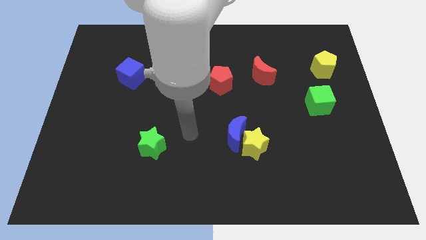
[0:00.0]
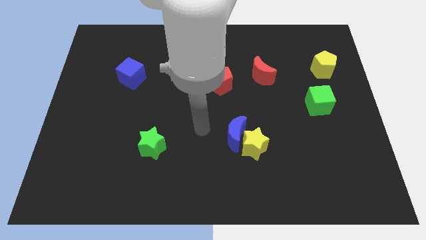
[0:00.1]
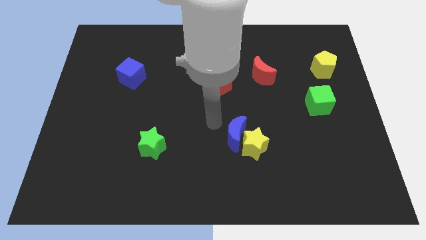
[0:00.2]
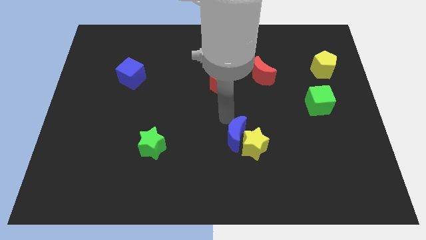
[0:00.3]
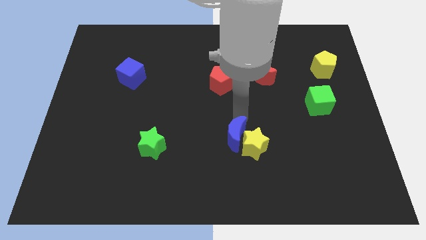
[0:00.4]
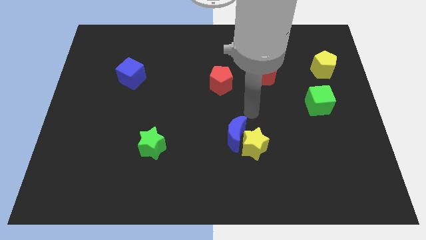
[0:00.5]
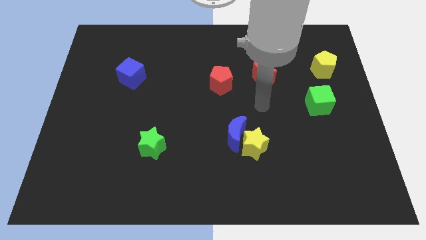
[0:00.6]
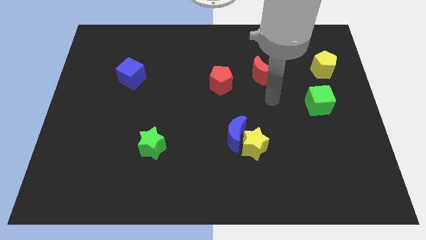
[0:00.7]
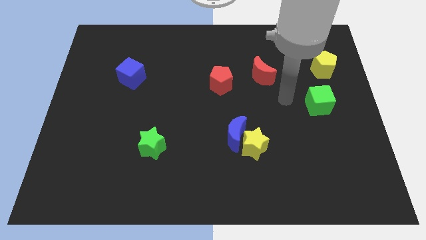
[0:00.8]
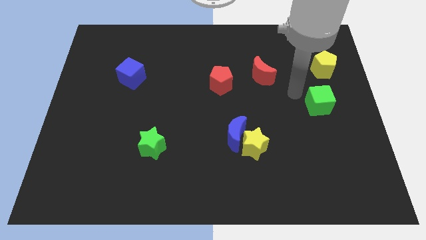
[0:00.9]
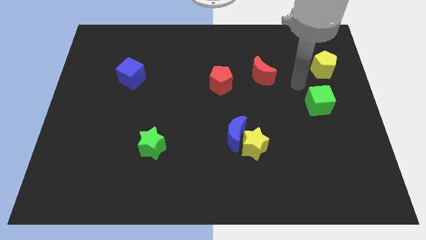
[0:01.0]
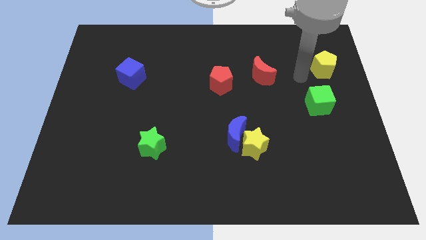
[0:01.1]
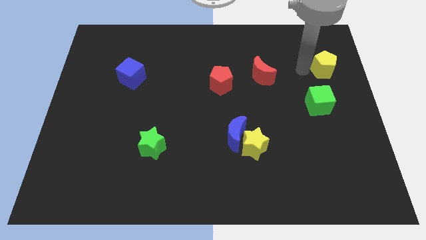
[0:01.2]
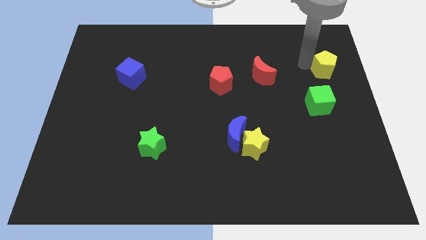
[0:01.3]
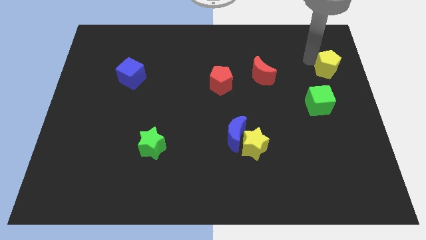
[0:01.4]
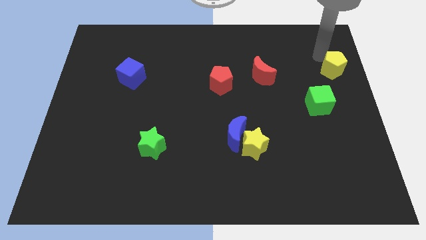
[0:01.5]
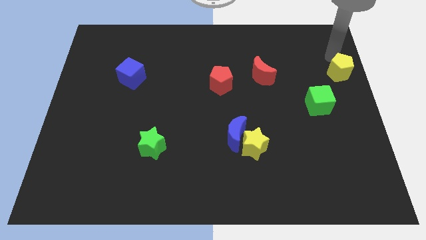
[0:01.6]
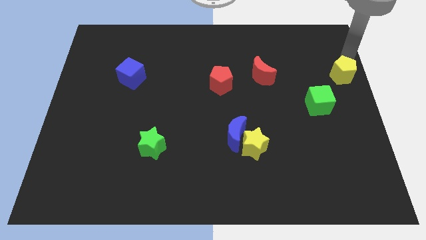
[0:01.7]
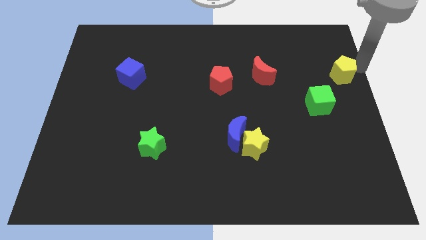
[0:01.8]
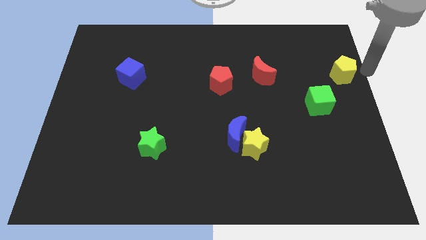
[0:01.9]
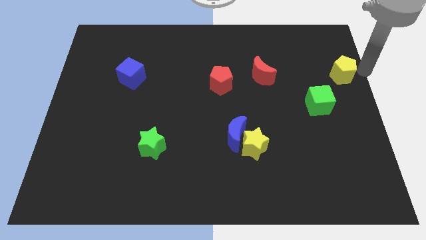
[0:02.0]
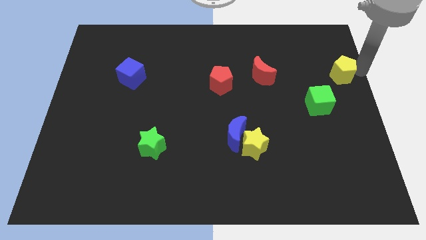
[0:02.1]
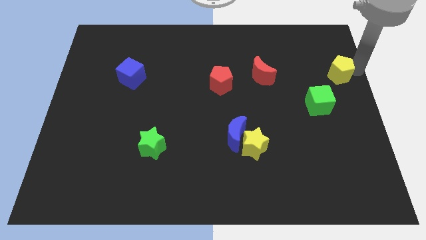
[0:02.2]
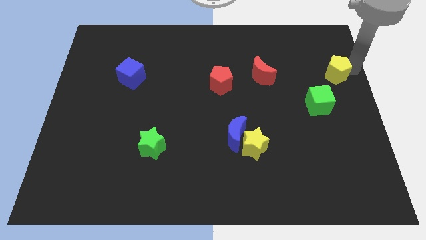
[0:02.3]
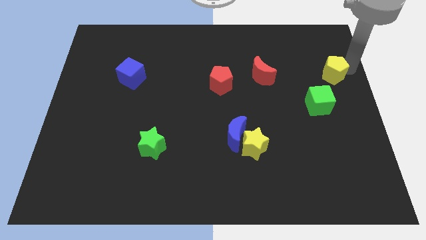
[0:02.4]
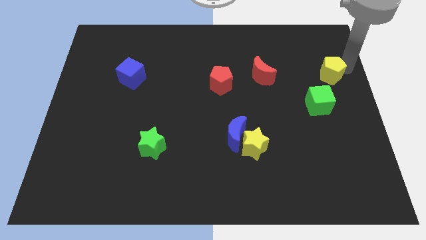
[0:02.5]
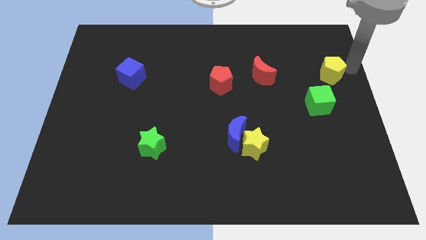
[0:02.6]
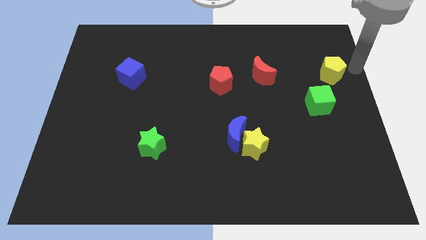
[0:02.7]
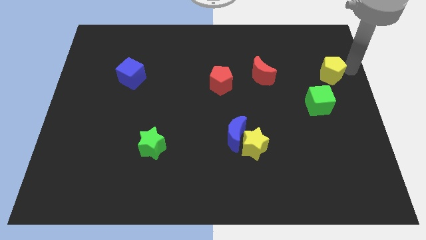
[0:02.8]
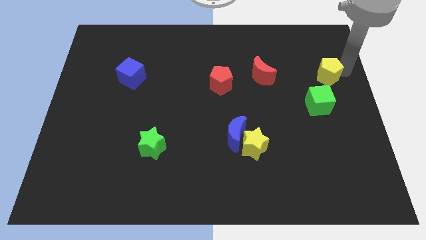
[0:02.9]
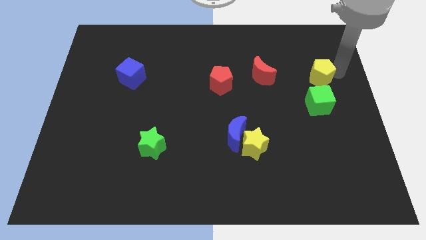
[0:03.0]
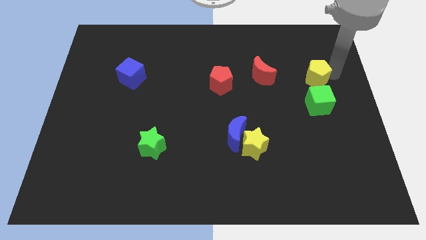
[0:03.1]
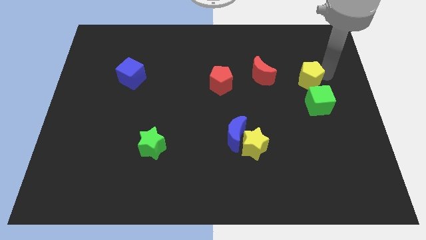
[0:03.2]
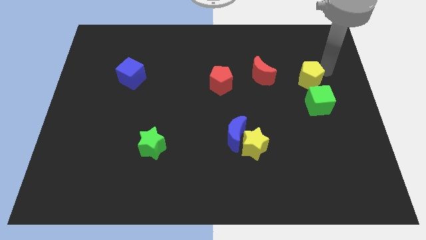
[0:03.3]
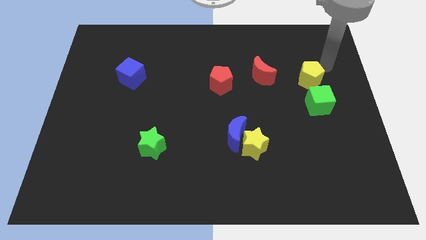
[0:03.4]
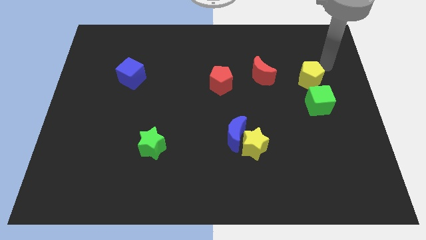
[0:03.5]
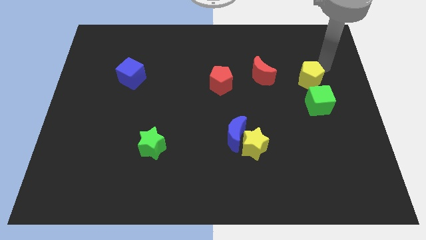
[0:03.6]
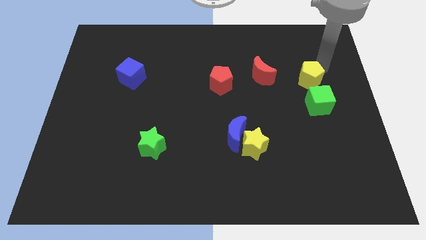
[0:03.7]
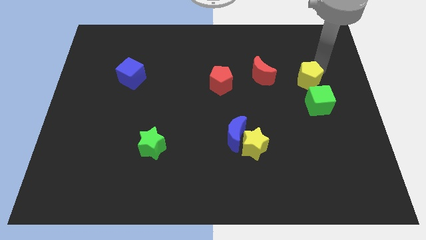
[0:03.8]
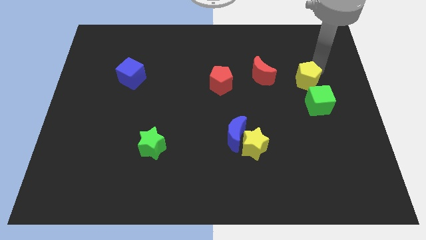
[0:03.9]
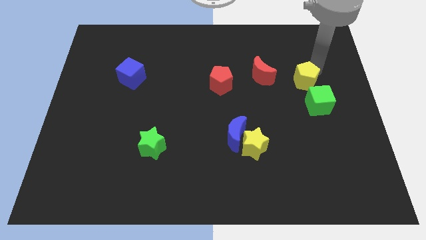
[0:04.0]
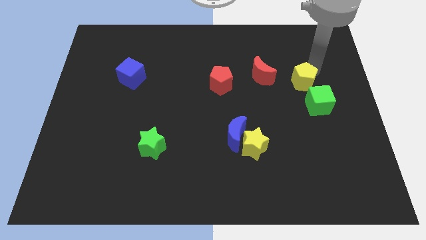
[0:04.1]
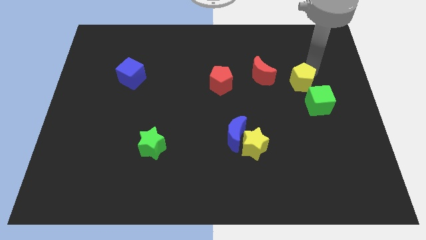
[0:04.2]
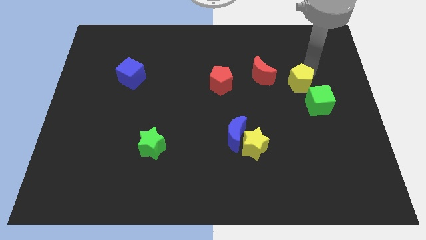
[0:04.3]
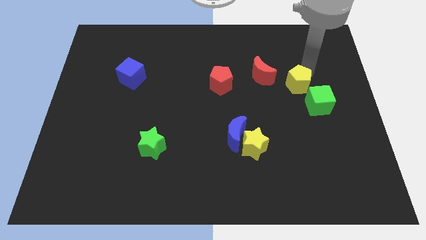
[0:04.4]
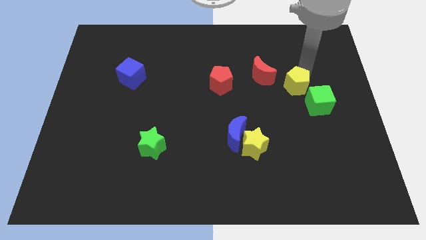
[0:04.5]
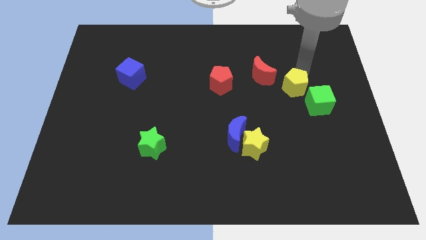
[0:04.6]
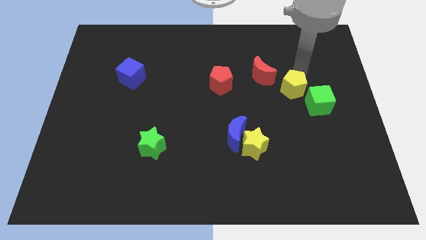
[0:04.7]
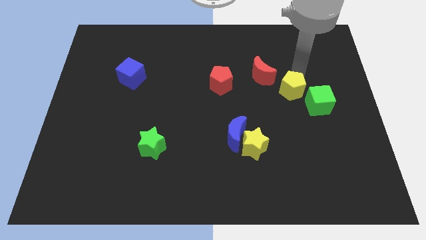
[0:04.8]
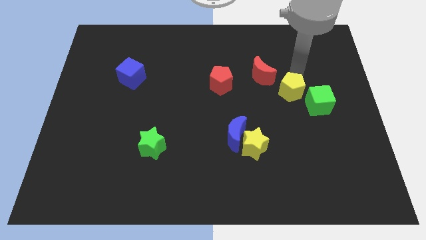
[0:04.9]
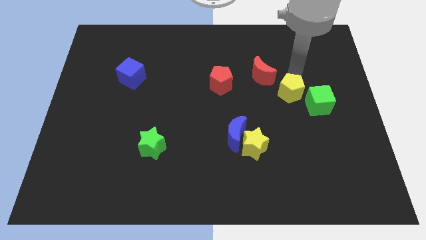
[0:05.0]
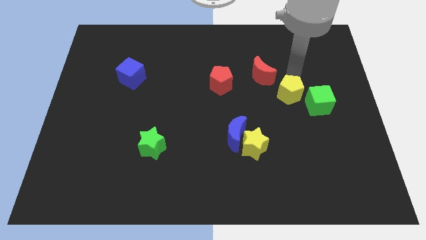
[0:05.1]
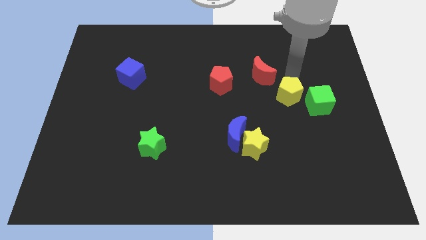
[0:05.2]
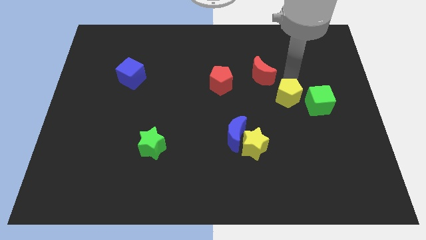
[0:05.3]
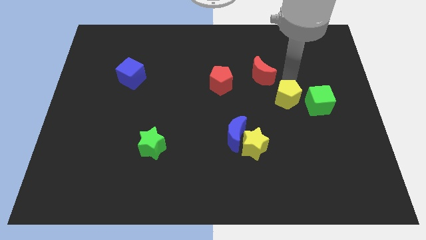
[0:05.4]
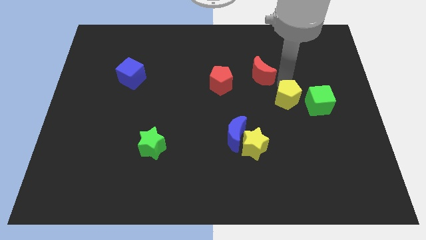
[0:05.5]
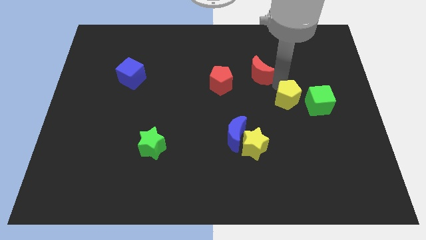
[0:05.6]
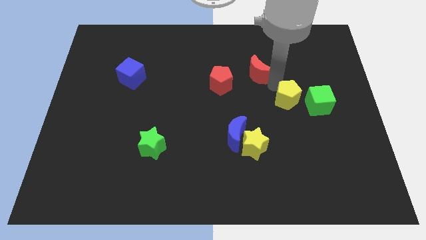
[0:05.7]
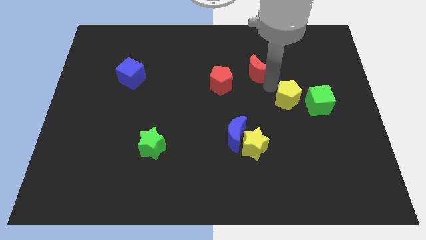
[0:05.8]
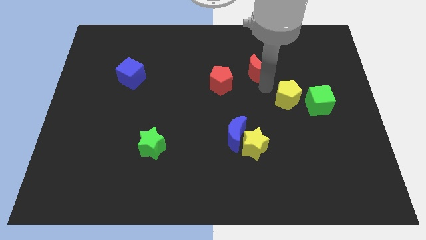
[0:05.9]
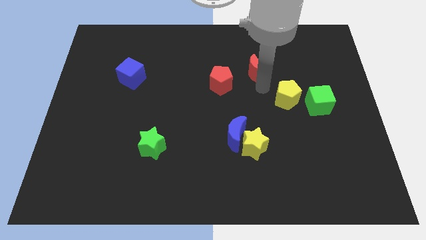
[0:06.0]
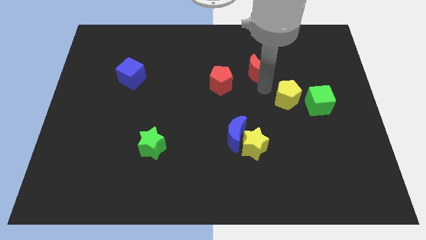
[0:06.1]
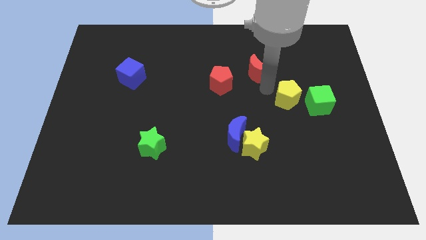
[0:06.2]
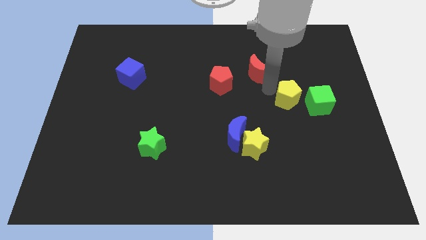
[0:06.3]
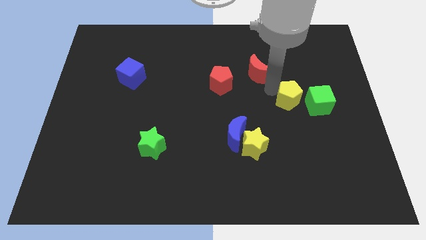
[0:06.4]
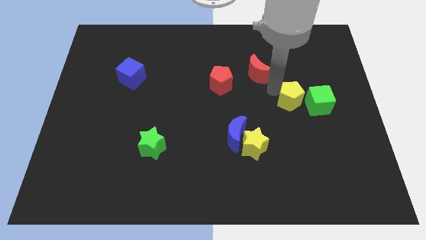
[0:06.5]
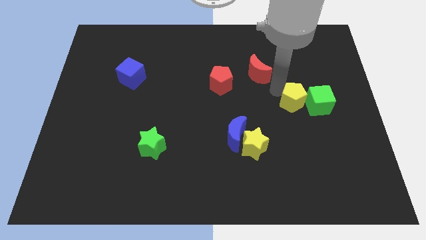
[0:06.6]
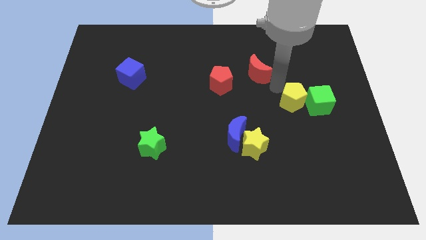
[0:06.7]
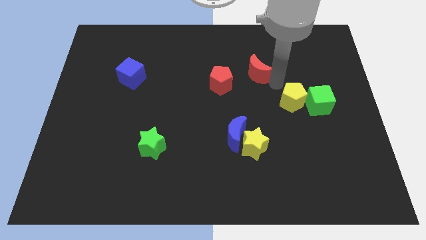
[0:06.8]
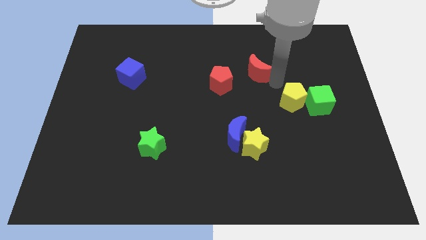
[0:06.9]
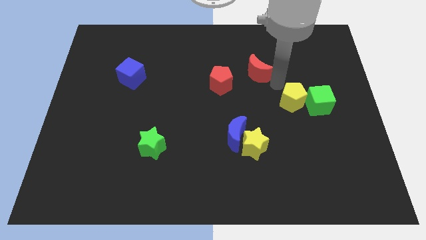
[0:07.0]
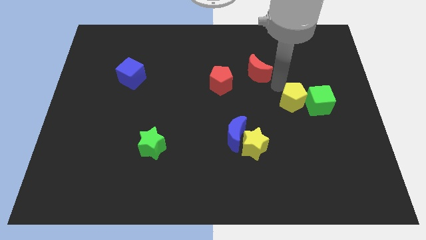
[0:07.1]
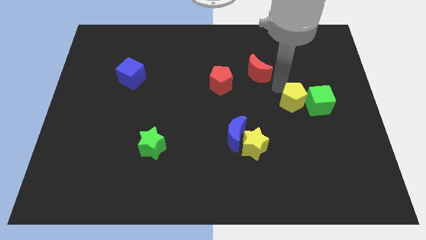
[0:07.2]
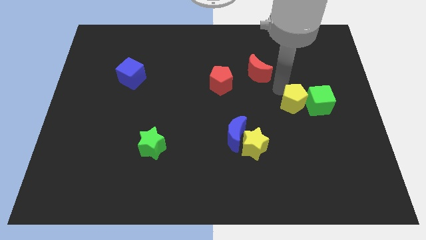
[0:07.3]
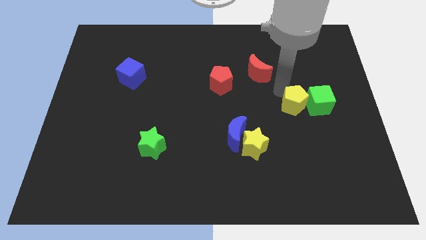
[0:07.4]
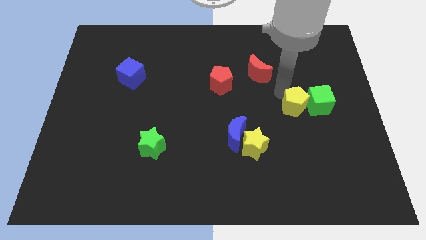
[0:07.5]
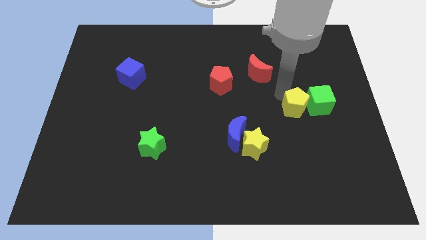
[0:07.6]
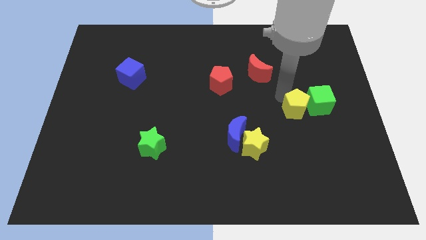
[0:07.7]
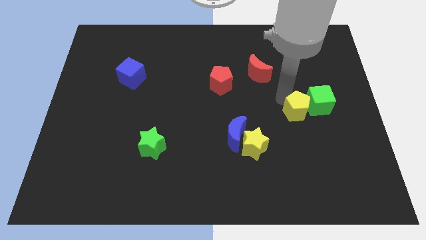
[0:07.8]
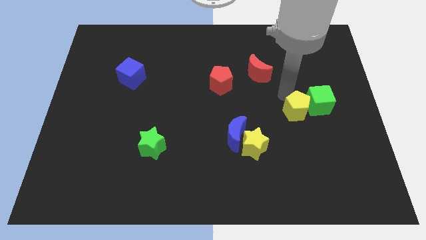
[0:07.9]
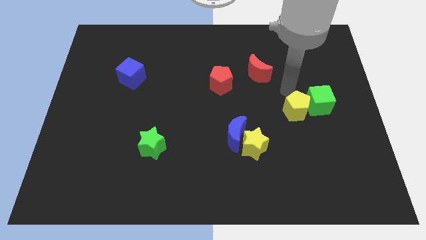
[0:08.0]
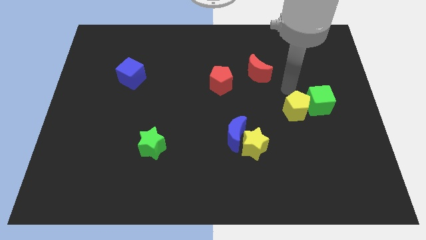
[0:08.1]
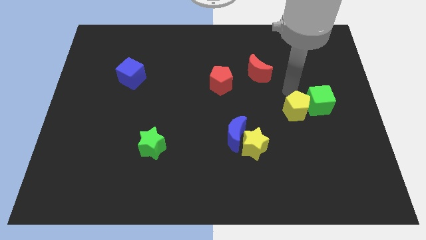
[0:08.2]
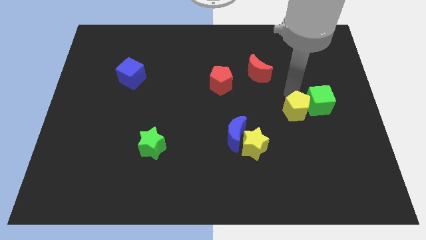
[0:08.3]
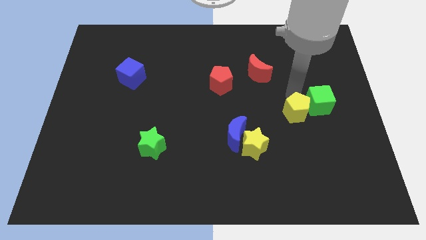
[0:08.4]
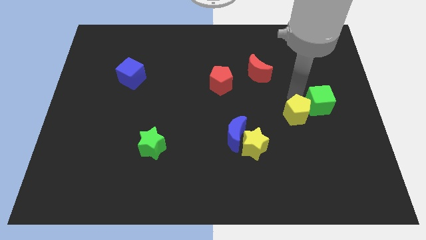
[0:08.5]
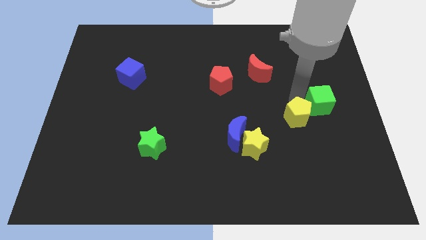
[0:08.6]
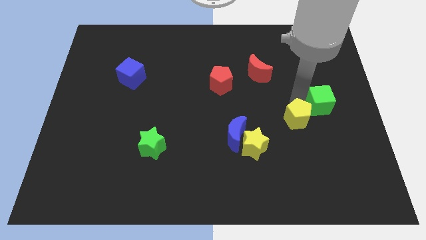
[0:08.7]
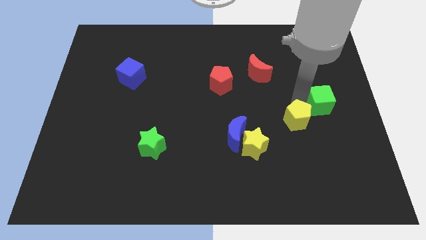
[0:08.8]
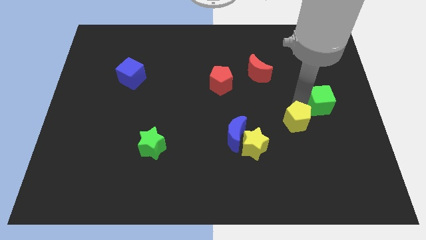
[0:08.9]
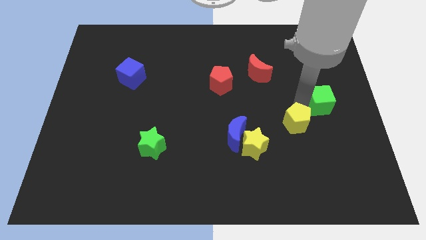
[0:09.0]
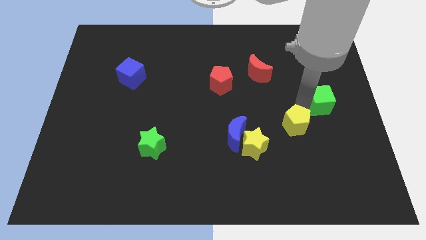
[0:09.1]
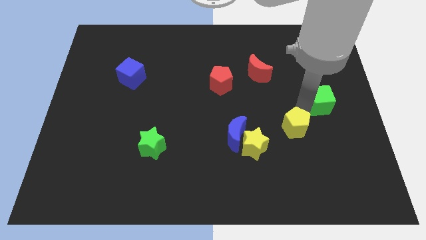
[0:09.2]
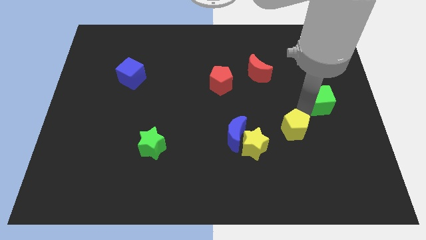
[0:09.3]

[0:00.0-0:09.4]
slide the yellow pentagon right of the yellow star
